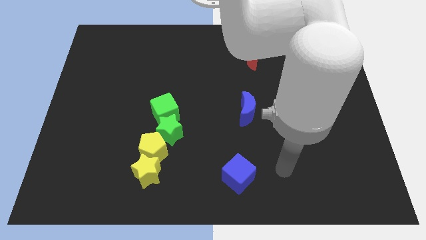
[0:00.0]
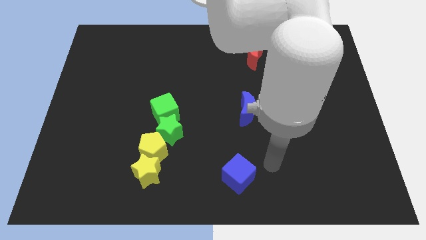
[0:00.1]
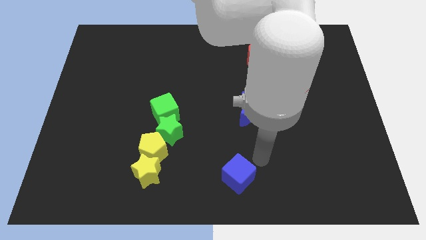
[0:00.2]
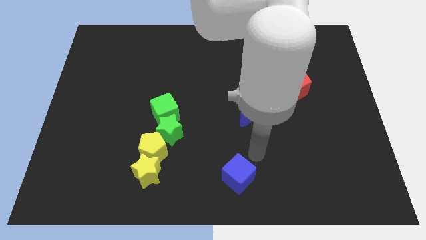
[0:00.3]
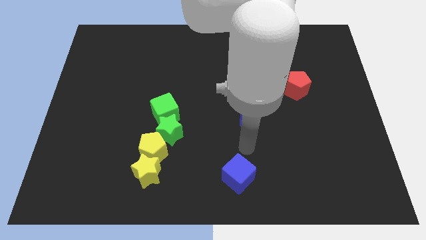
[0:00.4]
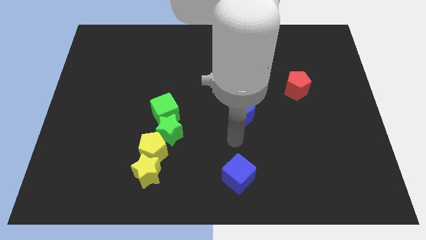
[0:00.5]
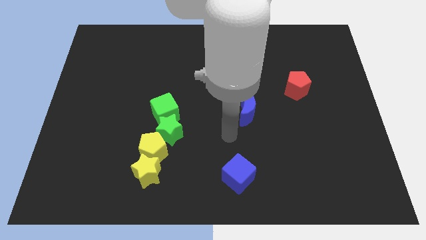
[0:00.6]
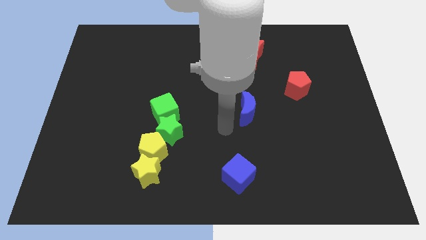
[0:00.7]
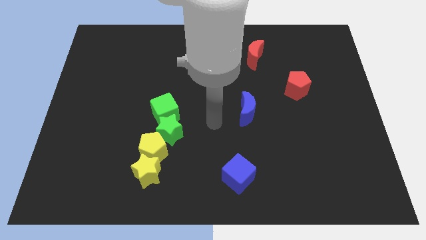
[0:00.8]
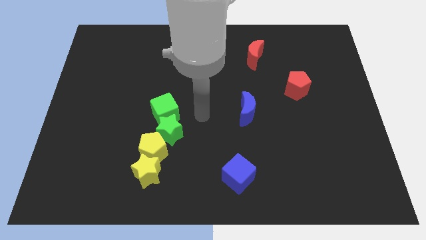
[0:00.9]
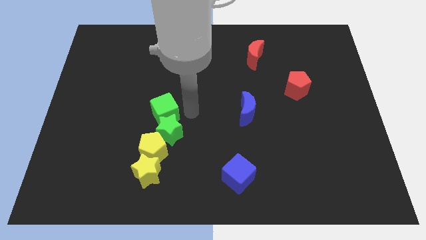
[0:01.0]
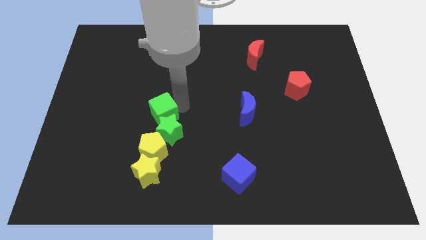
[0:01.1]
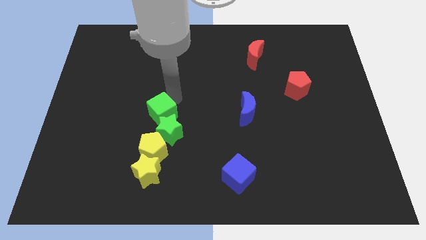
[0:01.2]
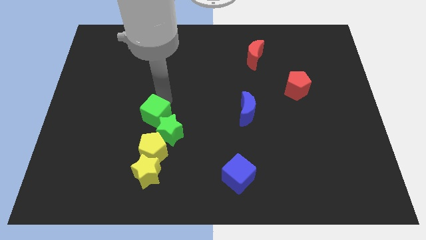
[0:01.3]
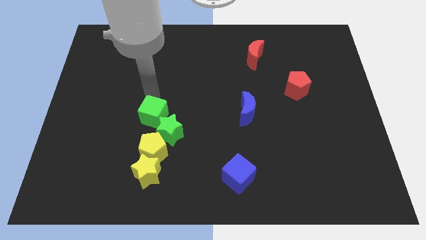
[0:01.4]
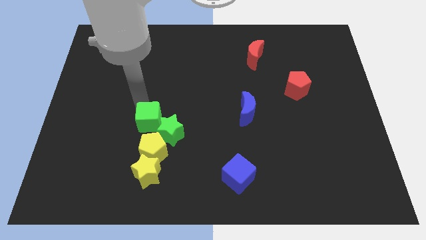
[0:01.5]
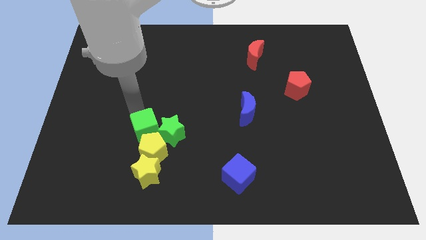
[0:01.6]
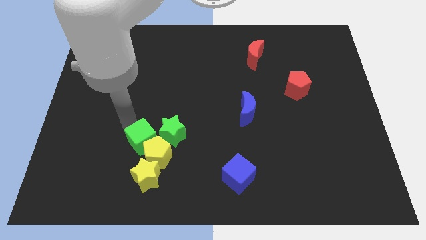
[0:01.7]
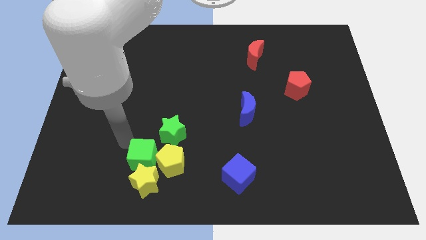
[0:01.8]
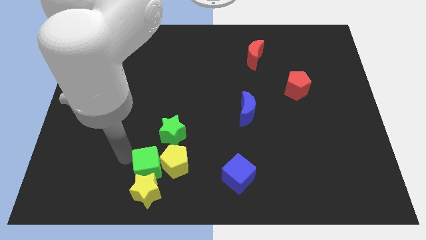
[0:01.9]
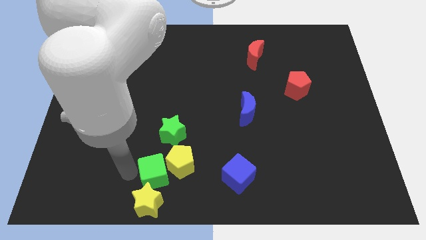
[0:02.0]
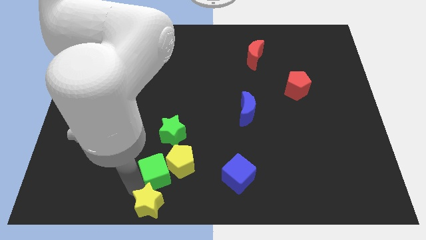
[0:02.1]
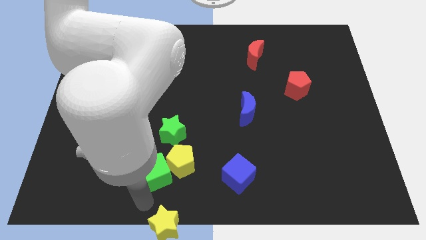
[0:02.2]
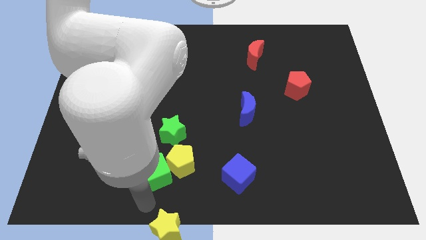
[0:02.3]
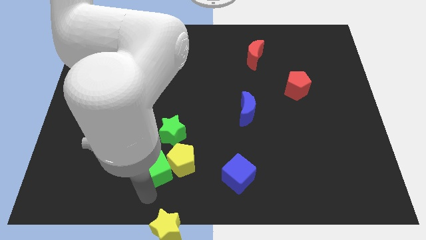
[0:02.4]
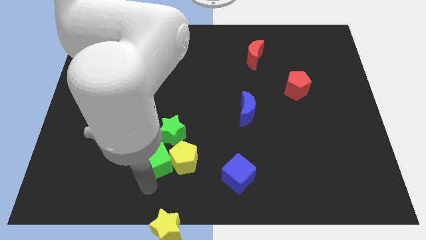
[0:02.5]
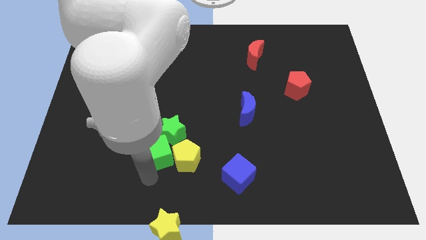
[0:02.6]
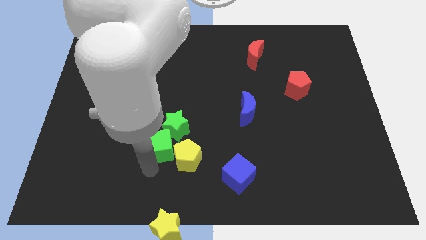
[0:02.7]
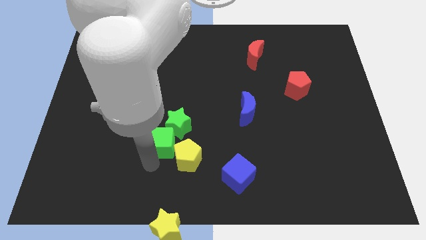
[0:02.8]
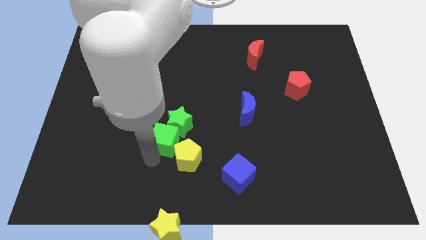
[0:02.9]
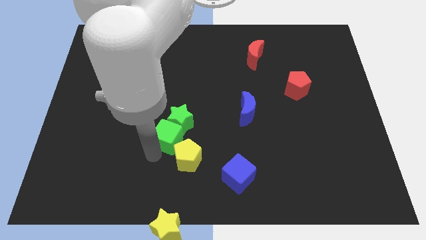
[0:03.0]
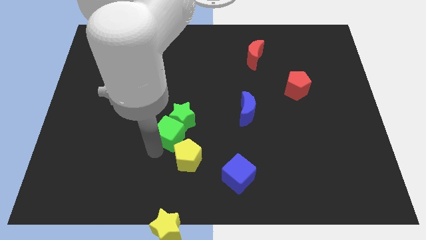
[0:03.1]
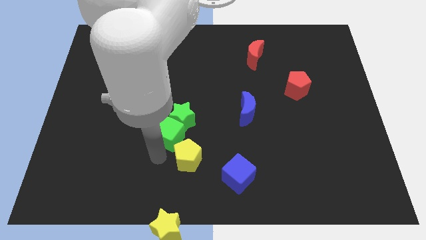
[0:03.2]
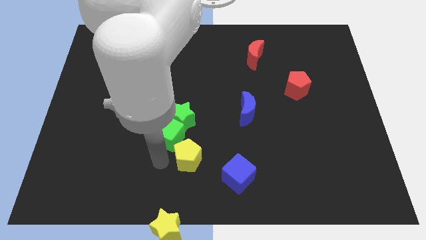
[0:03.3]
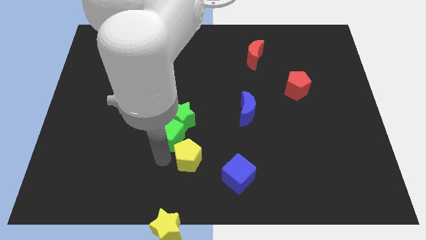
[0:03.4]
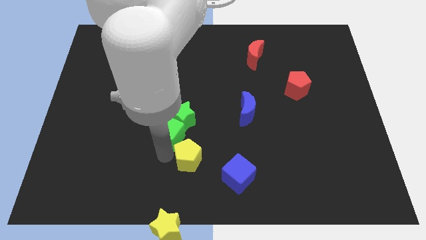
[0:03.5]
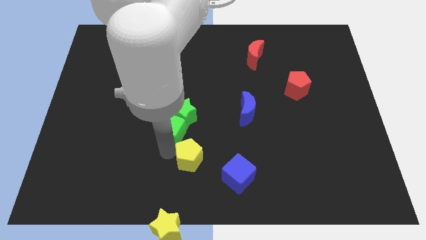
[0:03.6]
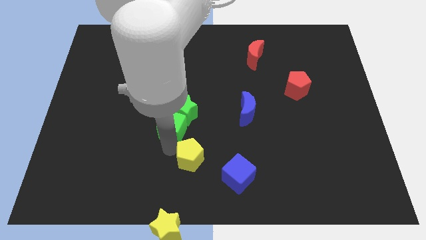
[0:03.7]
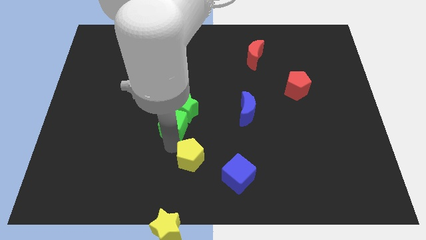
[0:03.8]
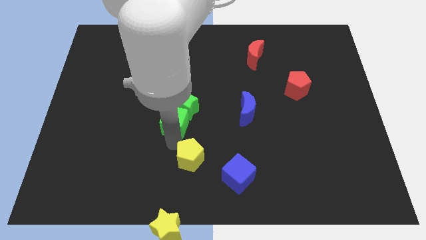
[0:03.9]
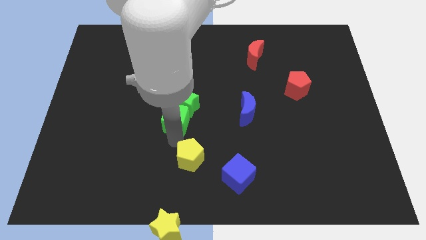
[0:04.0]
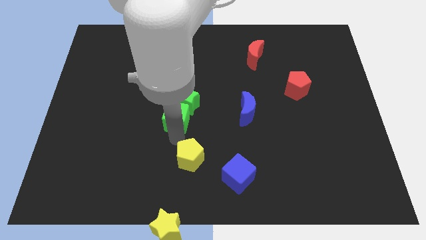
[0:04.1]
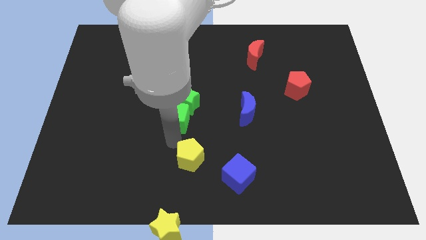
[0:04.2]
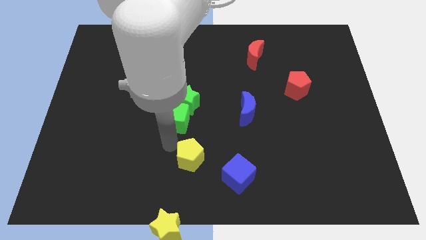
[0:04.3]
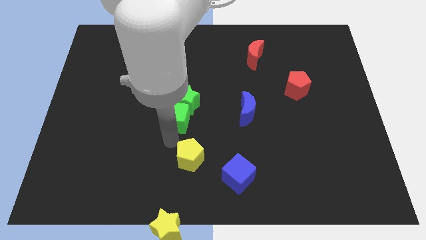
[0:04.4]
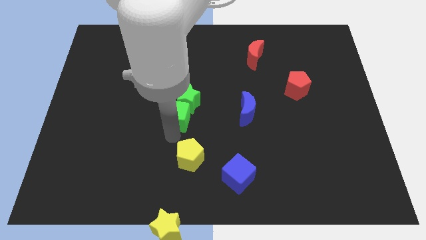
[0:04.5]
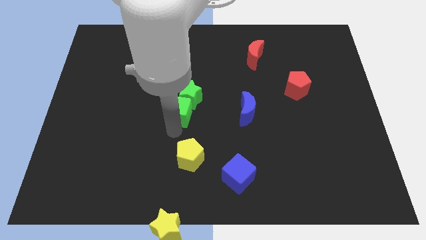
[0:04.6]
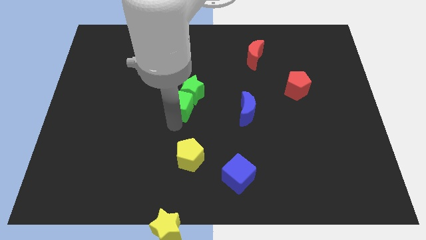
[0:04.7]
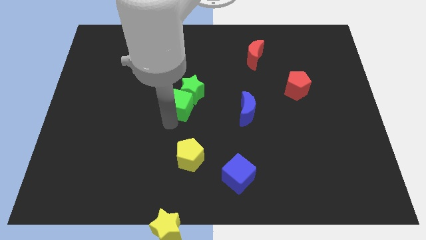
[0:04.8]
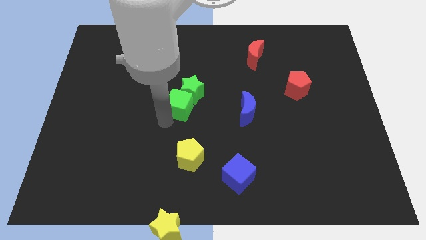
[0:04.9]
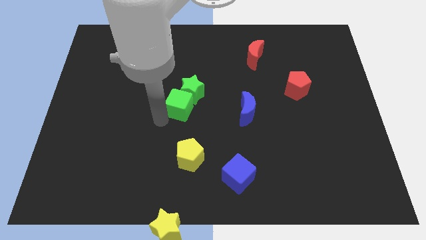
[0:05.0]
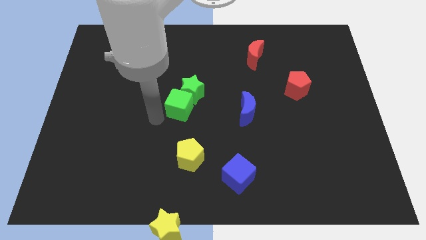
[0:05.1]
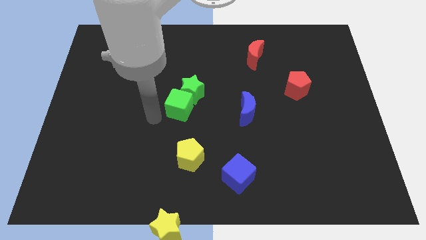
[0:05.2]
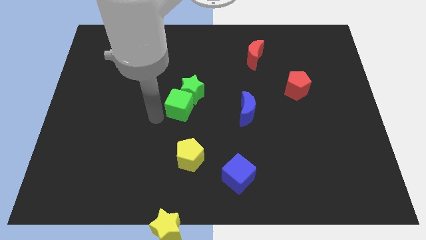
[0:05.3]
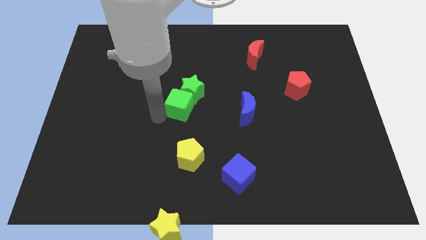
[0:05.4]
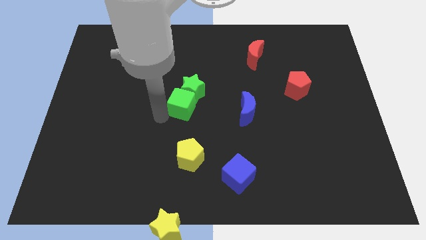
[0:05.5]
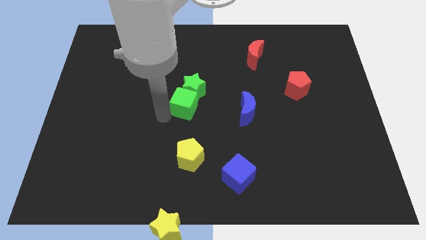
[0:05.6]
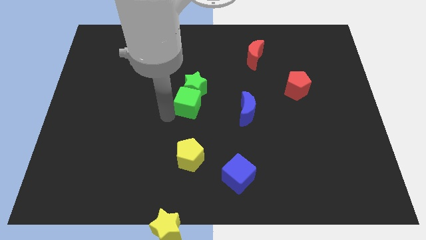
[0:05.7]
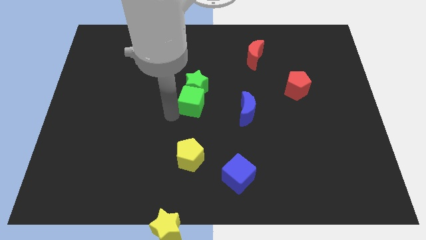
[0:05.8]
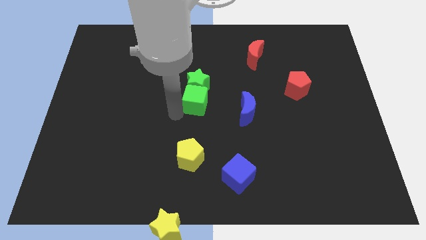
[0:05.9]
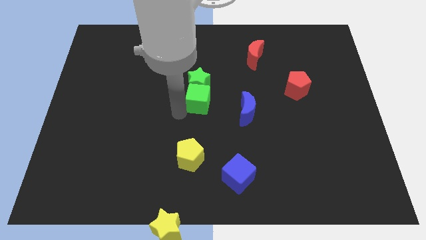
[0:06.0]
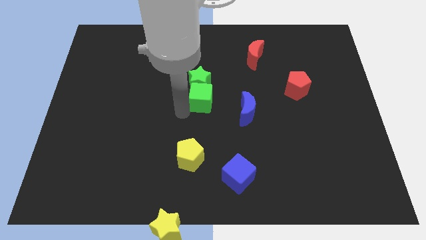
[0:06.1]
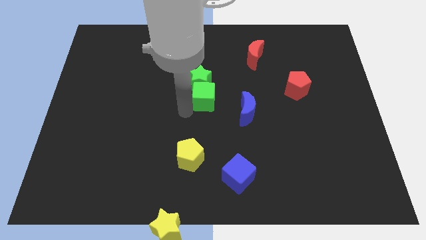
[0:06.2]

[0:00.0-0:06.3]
slide the green cube to the top left side of the blue moon

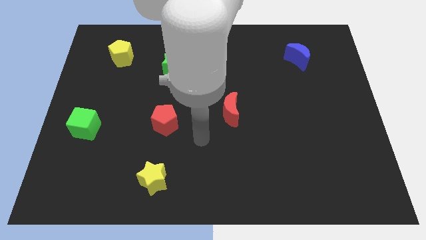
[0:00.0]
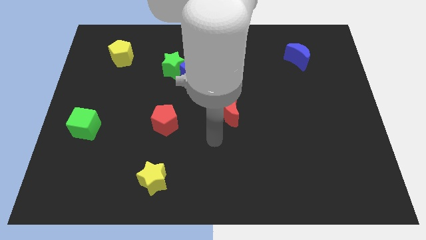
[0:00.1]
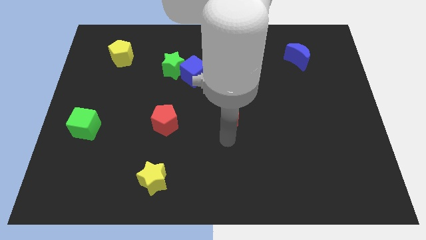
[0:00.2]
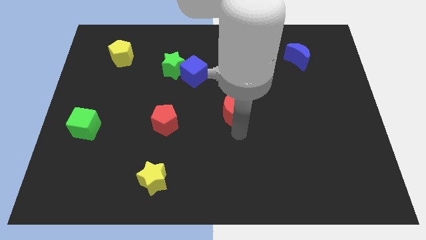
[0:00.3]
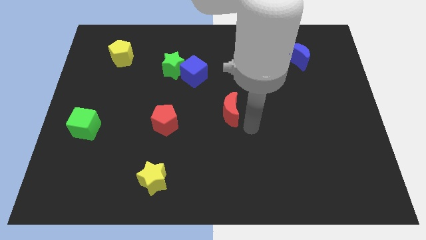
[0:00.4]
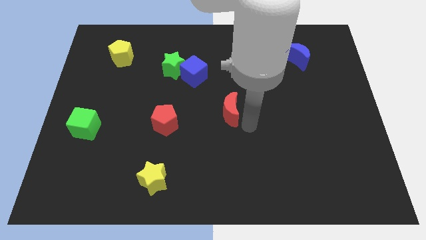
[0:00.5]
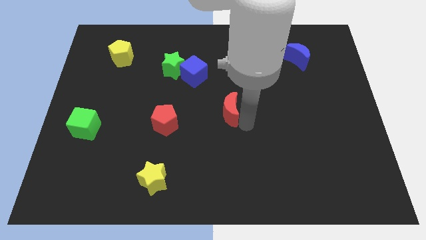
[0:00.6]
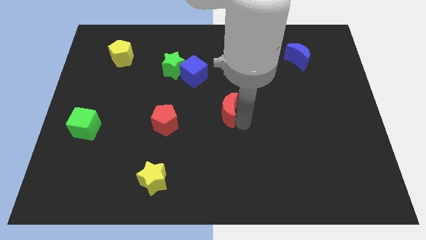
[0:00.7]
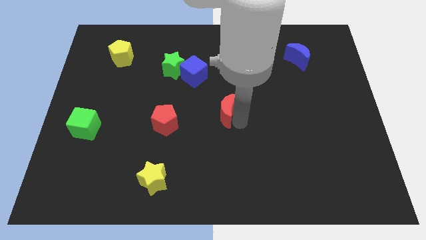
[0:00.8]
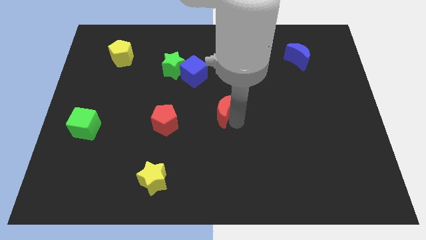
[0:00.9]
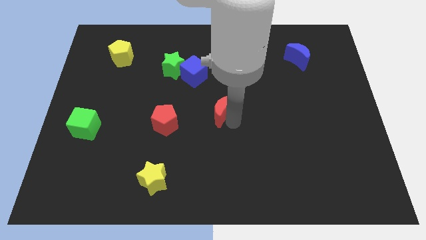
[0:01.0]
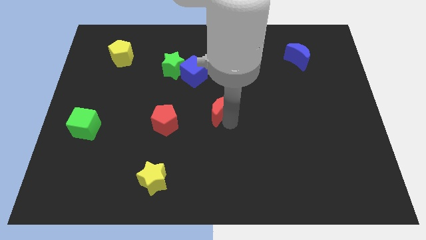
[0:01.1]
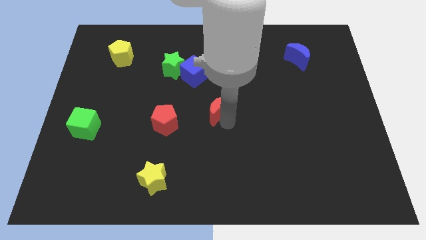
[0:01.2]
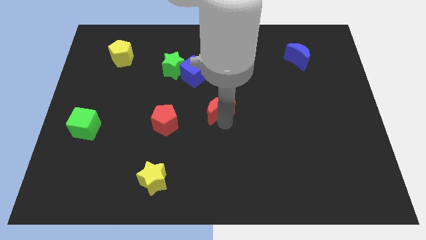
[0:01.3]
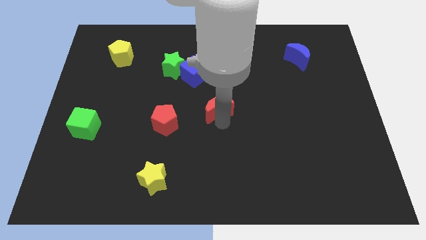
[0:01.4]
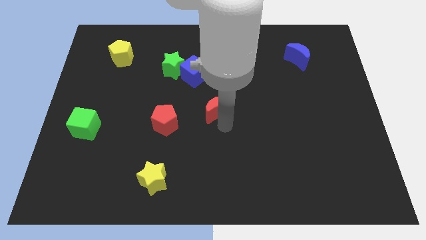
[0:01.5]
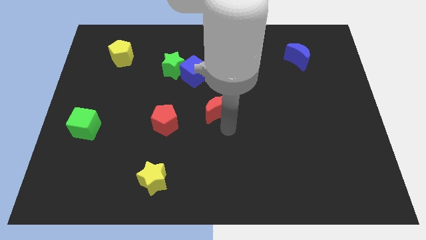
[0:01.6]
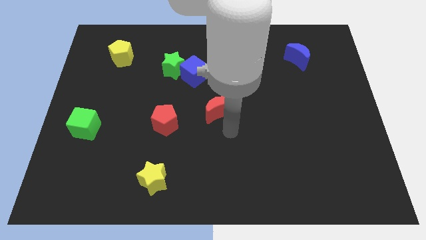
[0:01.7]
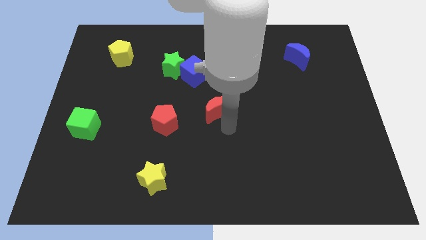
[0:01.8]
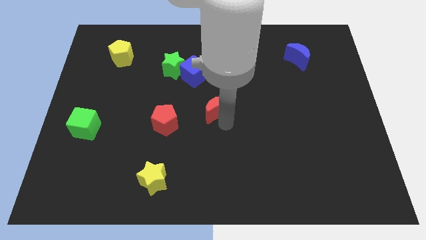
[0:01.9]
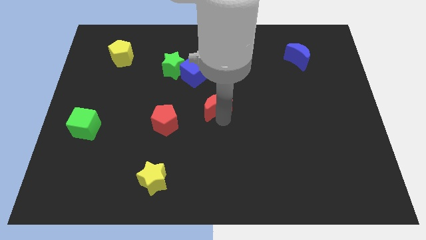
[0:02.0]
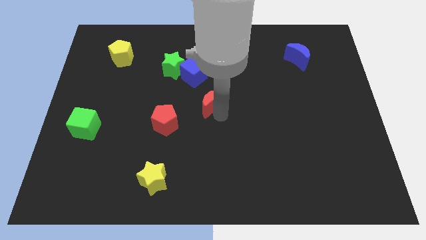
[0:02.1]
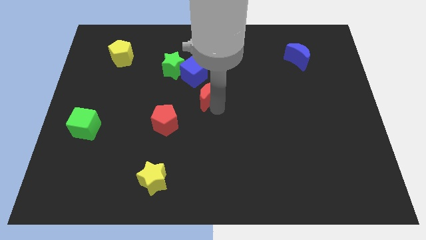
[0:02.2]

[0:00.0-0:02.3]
slide the red moon to the bottom right side of the green star
